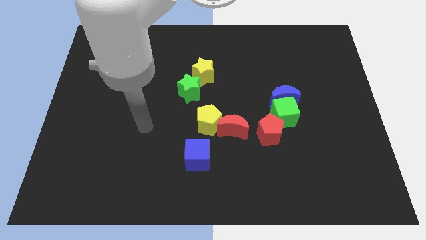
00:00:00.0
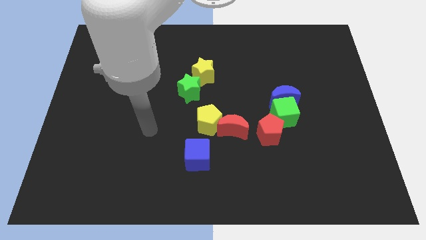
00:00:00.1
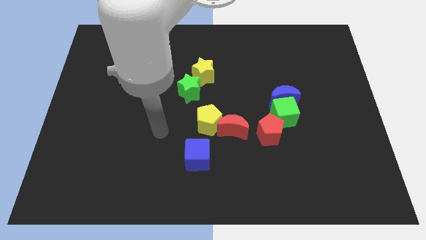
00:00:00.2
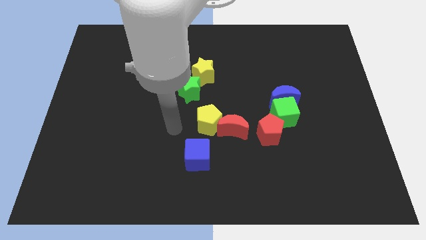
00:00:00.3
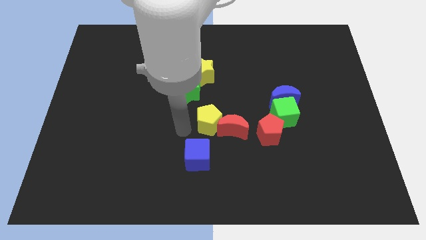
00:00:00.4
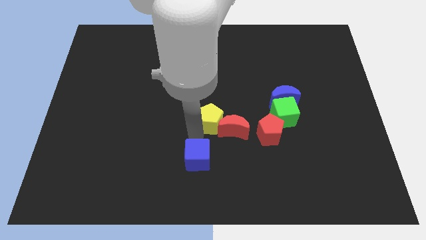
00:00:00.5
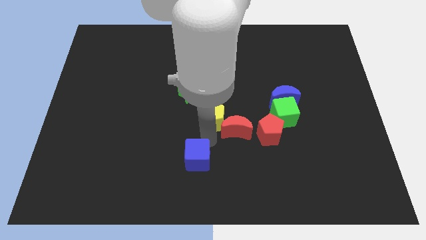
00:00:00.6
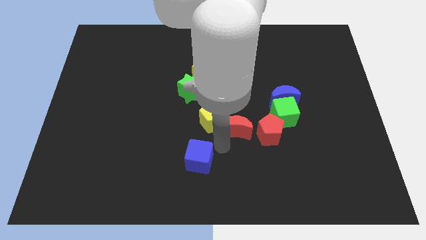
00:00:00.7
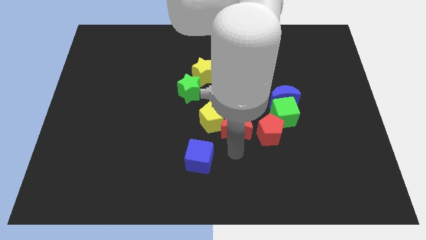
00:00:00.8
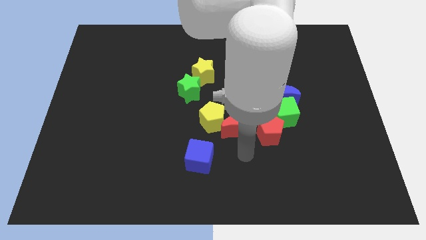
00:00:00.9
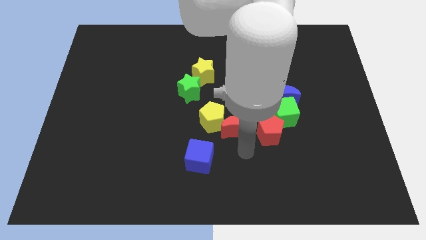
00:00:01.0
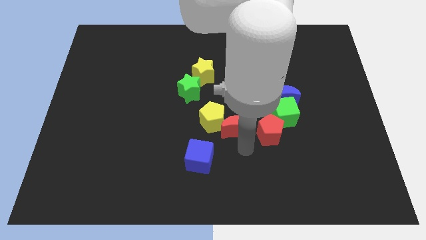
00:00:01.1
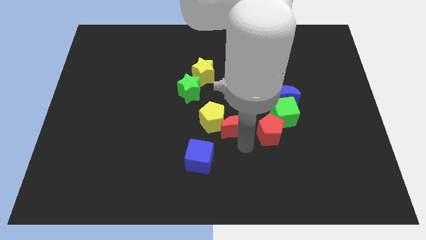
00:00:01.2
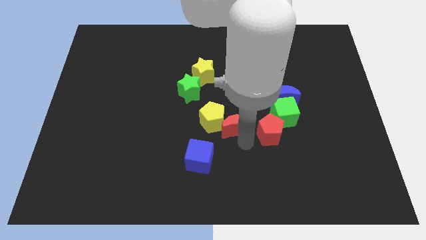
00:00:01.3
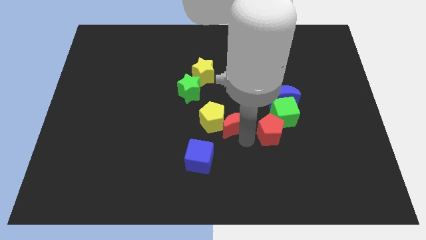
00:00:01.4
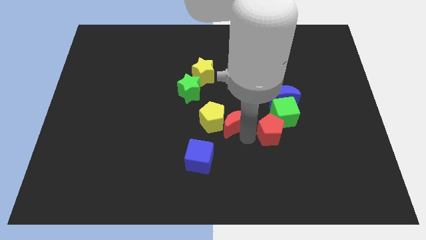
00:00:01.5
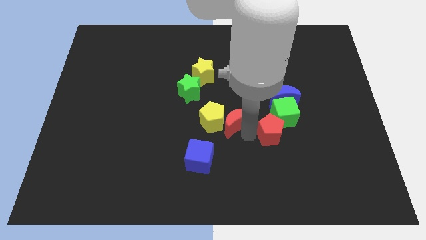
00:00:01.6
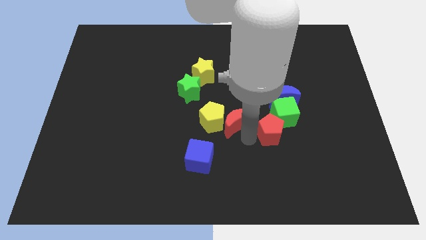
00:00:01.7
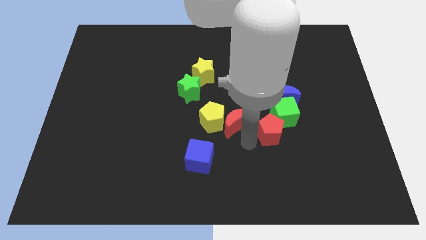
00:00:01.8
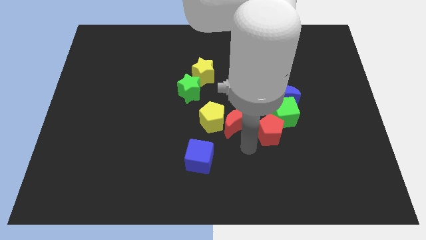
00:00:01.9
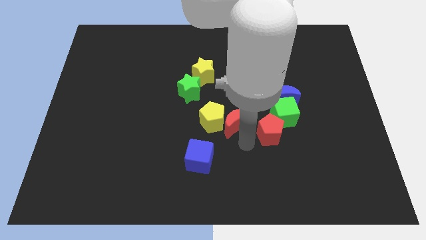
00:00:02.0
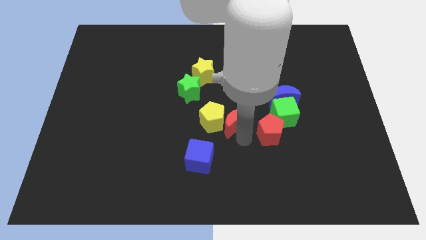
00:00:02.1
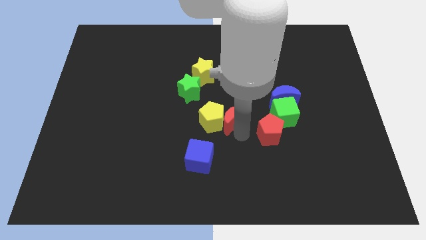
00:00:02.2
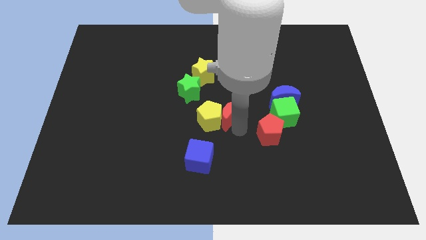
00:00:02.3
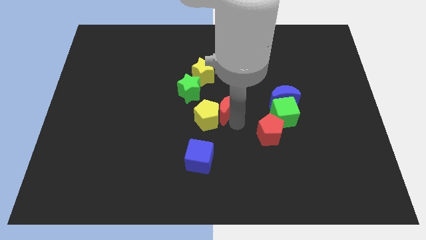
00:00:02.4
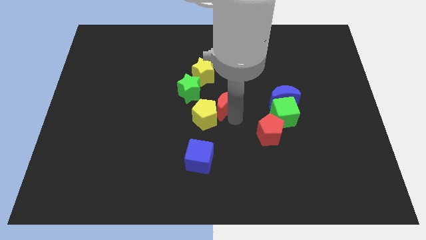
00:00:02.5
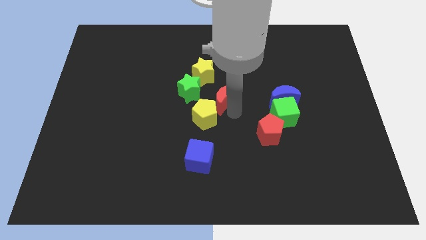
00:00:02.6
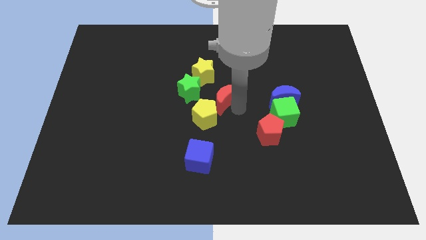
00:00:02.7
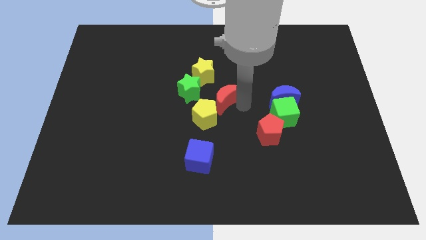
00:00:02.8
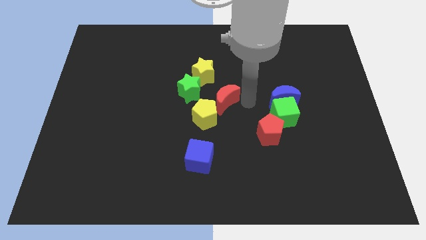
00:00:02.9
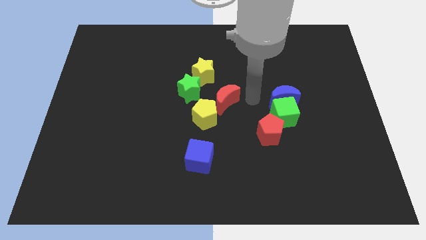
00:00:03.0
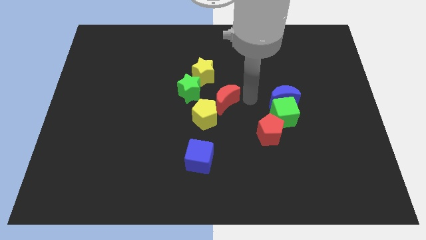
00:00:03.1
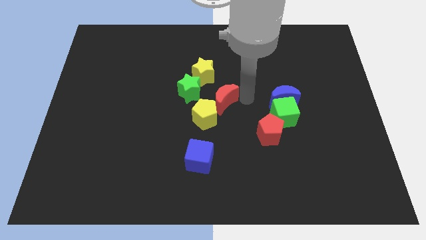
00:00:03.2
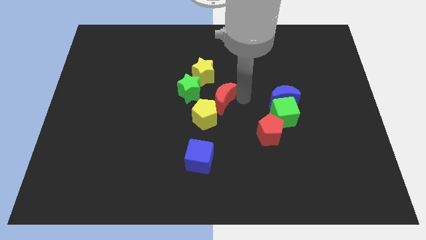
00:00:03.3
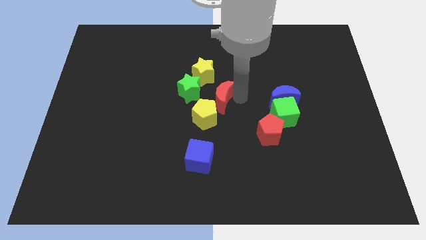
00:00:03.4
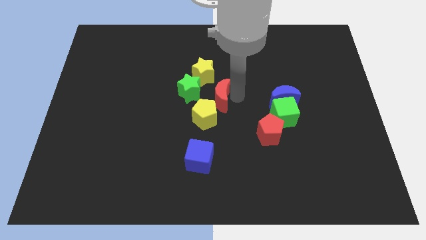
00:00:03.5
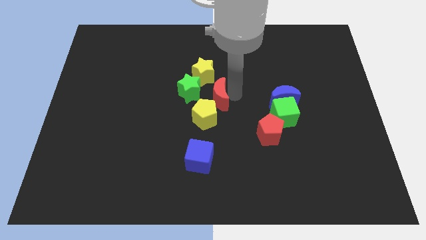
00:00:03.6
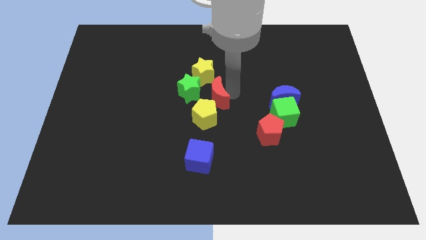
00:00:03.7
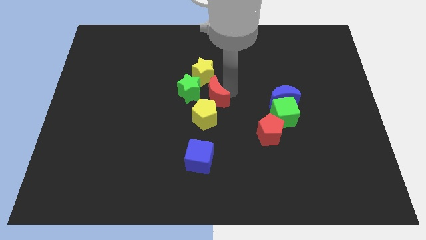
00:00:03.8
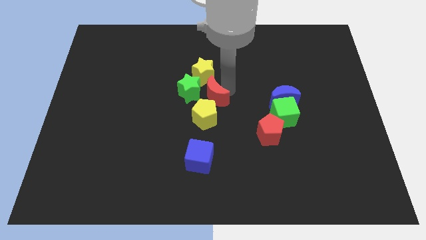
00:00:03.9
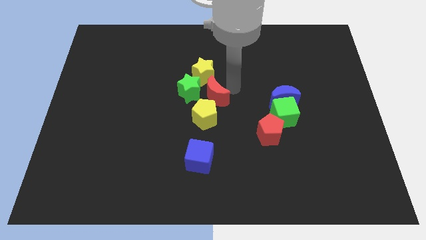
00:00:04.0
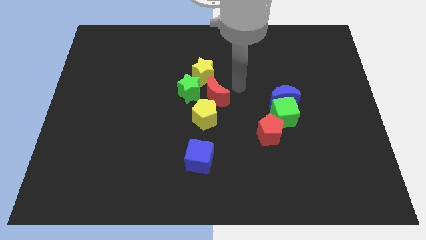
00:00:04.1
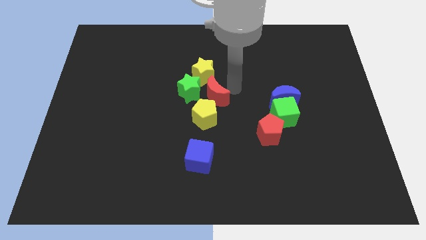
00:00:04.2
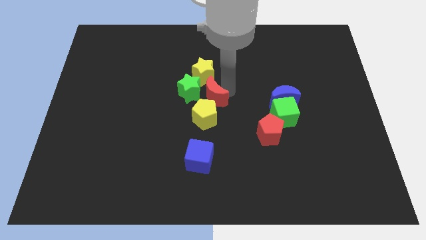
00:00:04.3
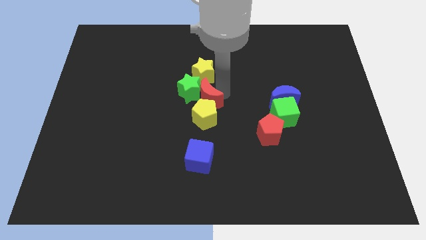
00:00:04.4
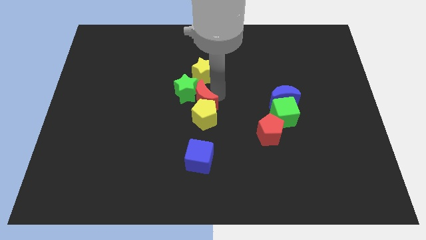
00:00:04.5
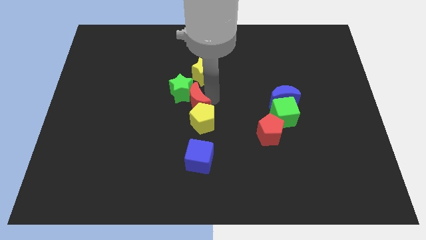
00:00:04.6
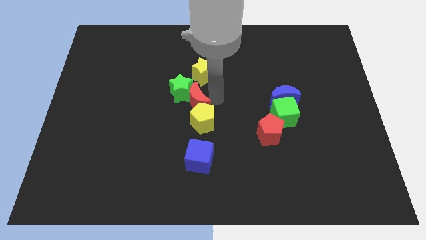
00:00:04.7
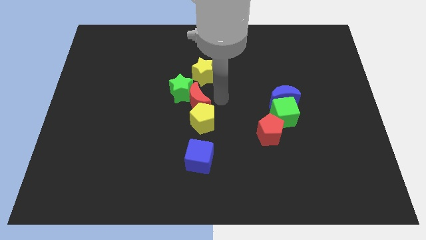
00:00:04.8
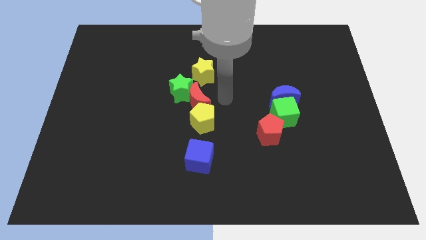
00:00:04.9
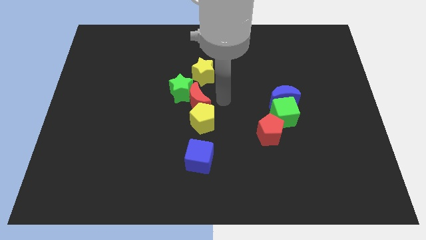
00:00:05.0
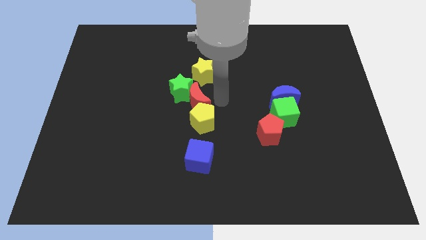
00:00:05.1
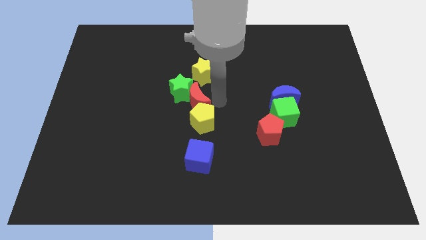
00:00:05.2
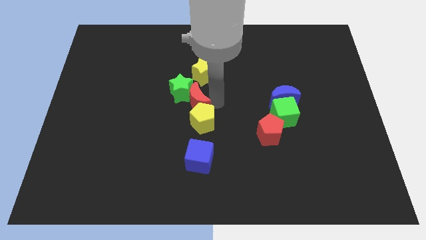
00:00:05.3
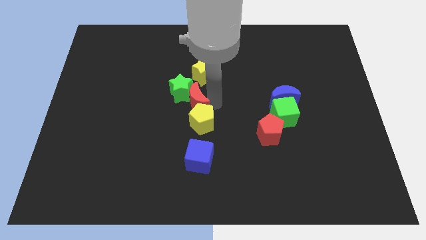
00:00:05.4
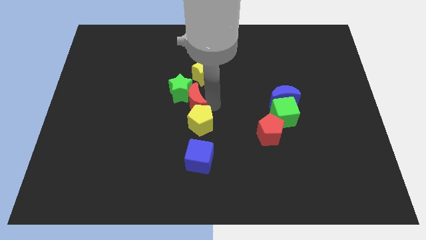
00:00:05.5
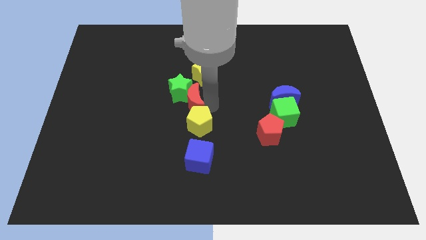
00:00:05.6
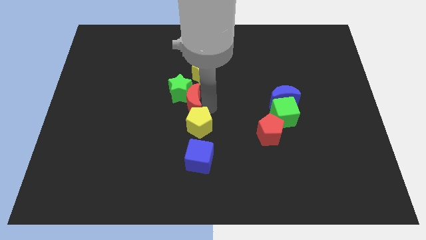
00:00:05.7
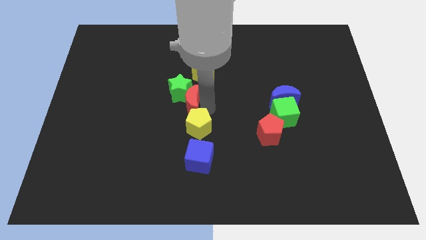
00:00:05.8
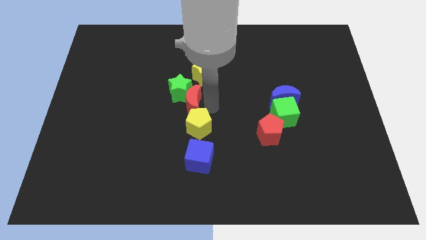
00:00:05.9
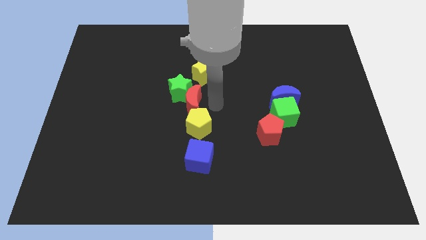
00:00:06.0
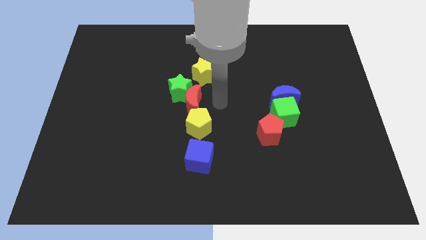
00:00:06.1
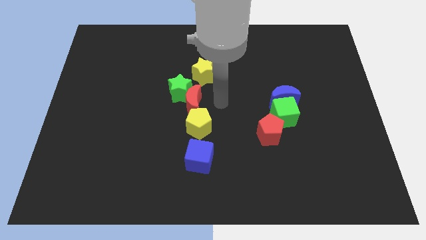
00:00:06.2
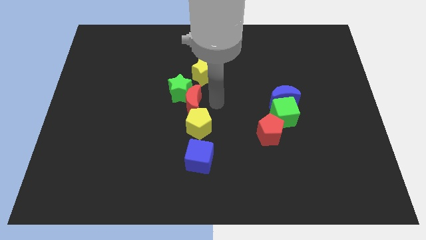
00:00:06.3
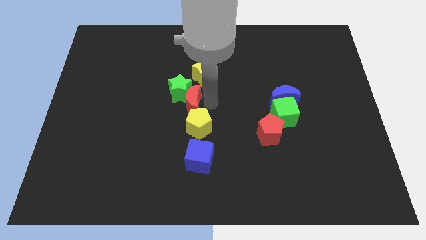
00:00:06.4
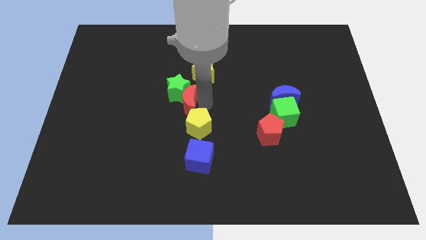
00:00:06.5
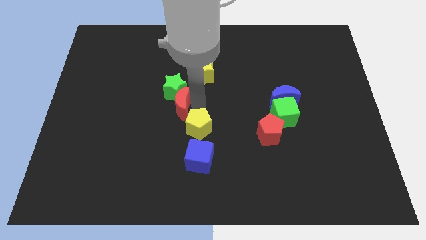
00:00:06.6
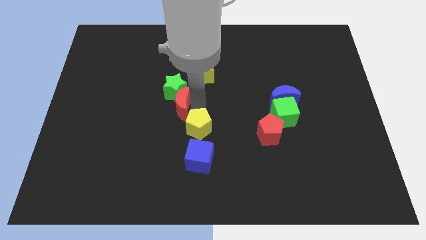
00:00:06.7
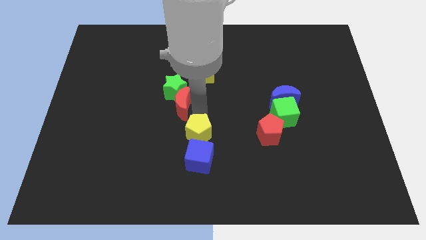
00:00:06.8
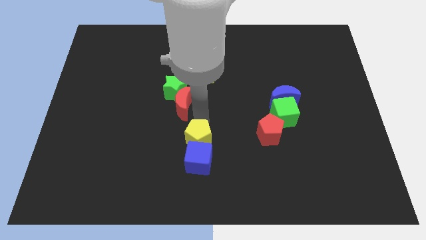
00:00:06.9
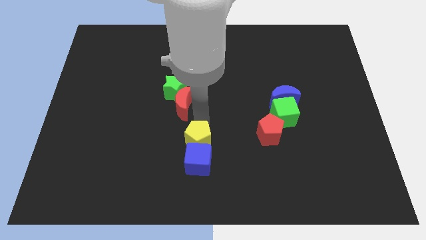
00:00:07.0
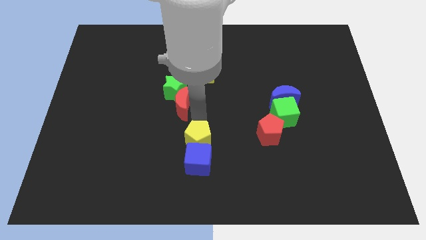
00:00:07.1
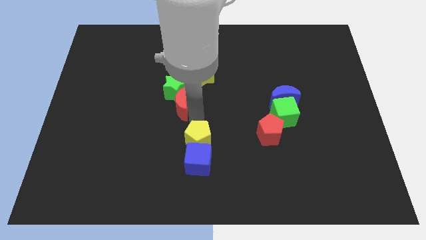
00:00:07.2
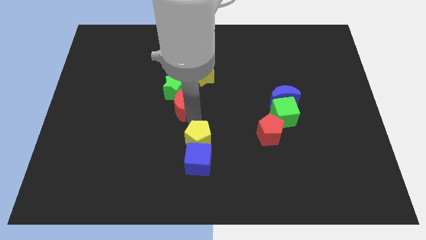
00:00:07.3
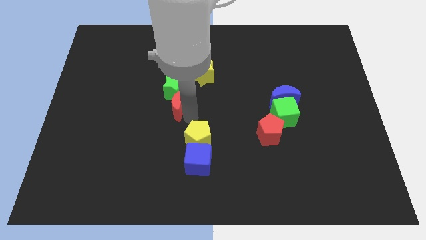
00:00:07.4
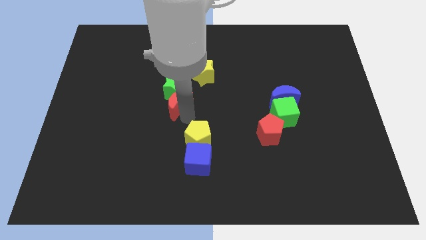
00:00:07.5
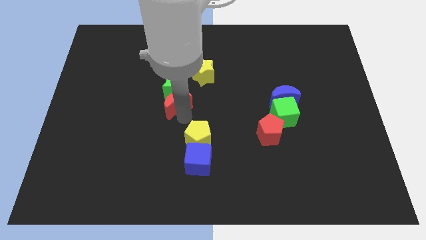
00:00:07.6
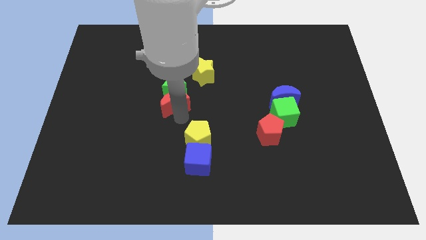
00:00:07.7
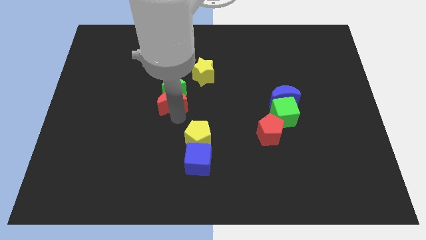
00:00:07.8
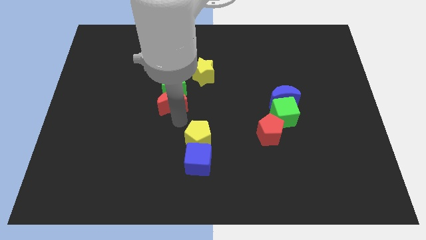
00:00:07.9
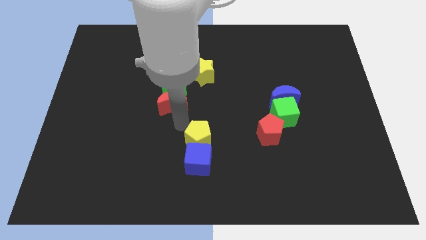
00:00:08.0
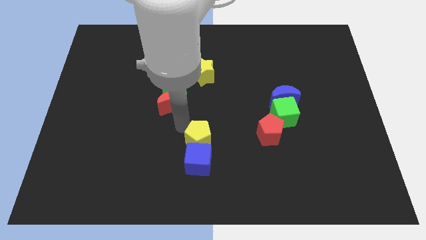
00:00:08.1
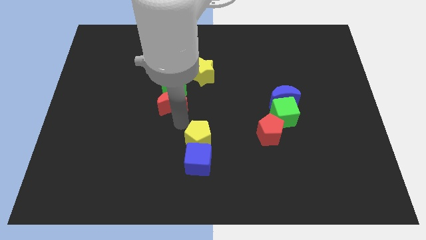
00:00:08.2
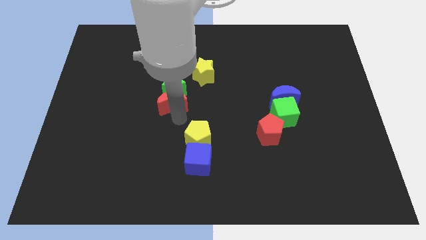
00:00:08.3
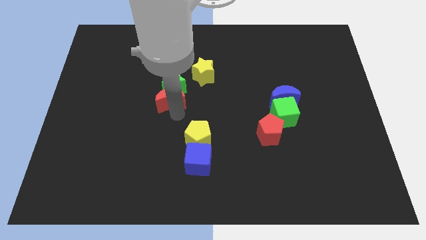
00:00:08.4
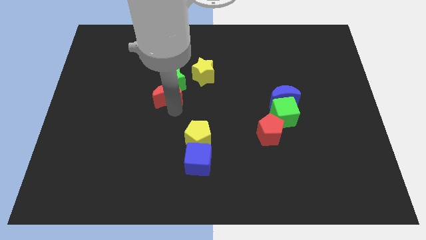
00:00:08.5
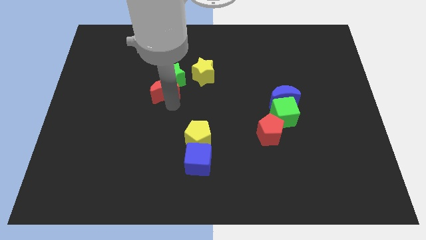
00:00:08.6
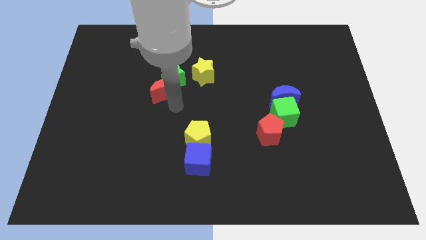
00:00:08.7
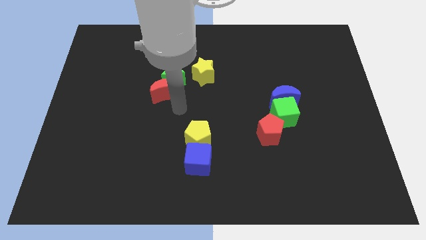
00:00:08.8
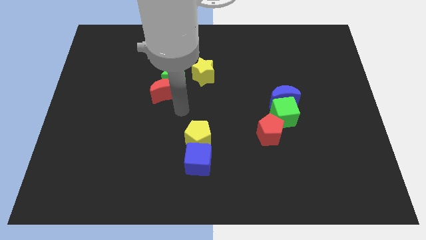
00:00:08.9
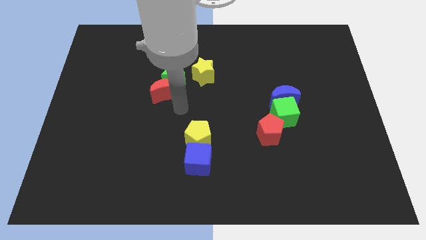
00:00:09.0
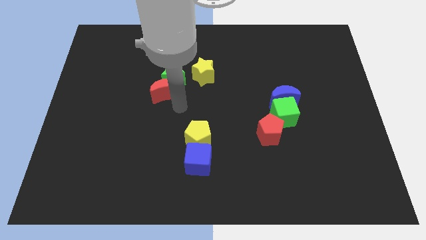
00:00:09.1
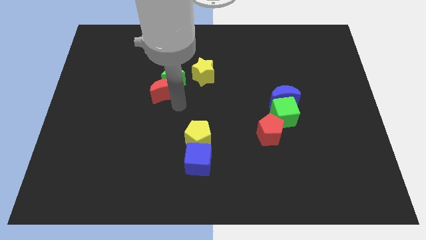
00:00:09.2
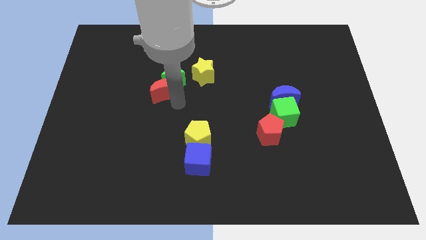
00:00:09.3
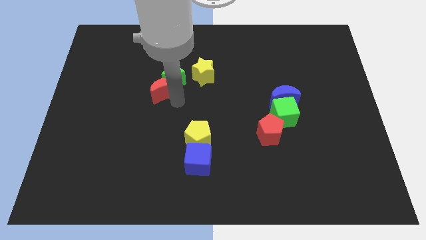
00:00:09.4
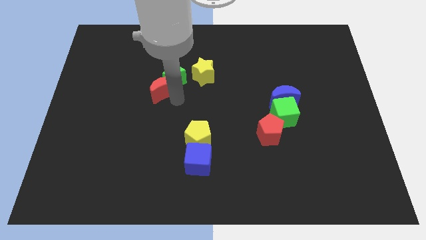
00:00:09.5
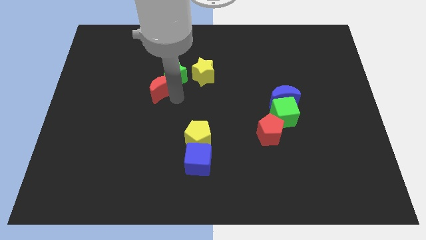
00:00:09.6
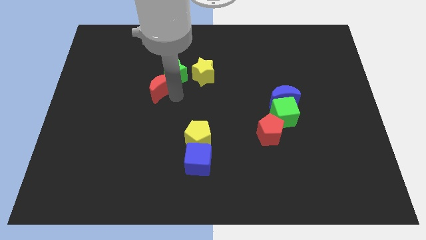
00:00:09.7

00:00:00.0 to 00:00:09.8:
move the red moon up and then left
